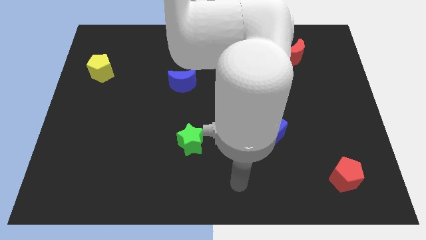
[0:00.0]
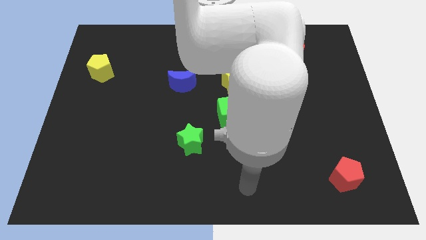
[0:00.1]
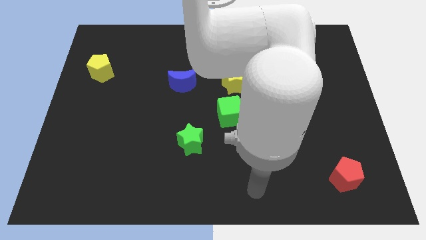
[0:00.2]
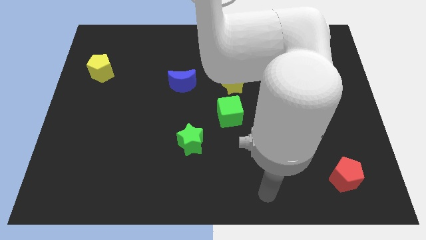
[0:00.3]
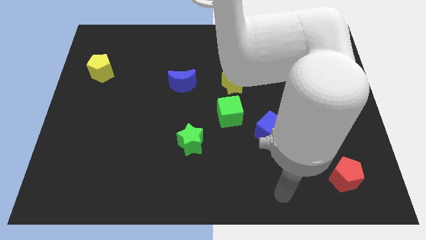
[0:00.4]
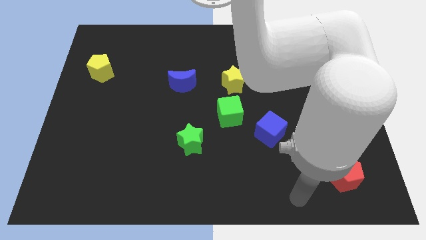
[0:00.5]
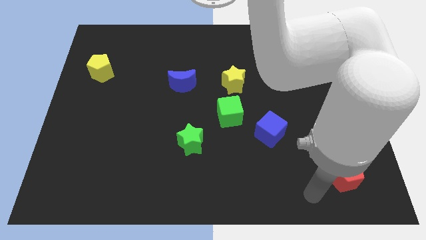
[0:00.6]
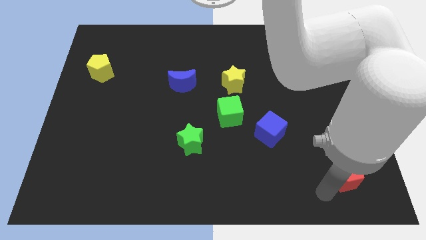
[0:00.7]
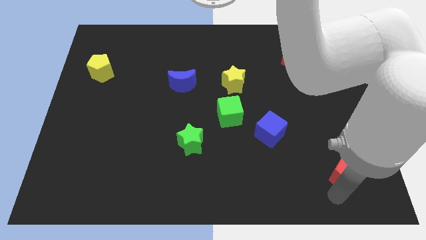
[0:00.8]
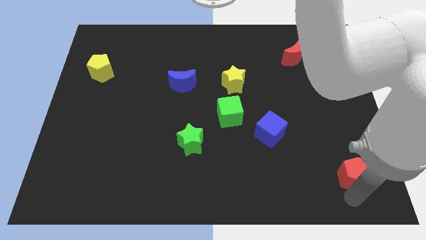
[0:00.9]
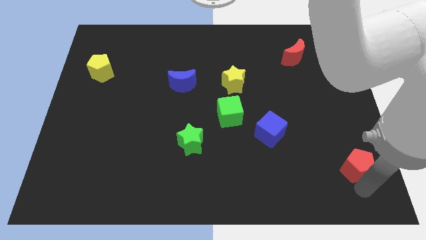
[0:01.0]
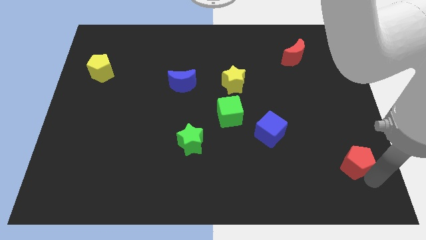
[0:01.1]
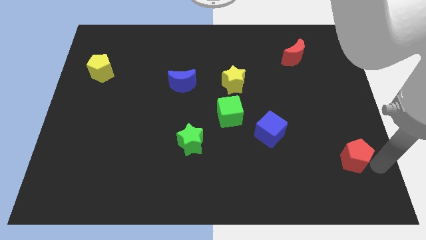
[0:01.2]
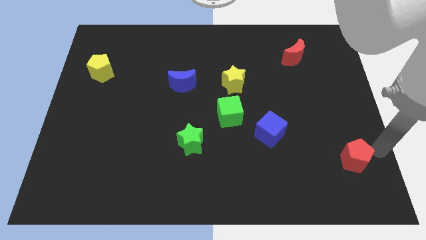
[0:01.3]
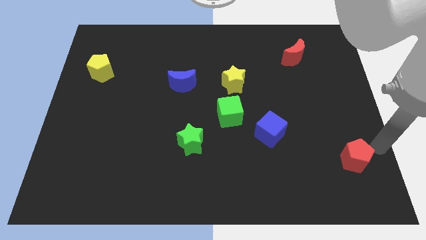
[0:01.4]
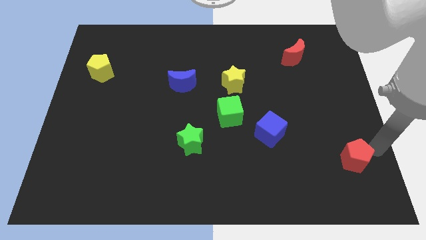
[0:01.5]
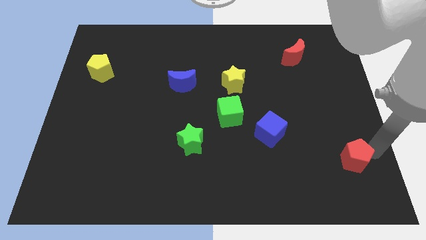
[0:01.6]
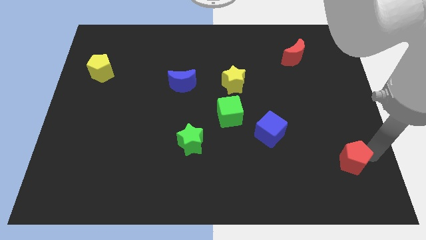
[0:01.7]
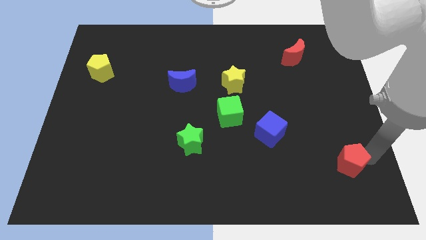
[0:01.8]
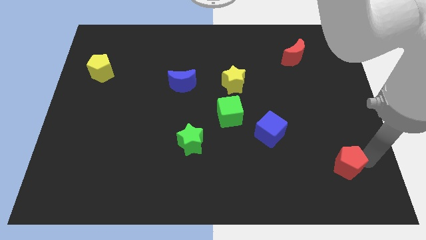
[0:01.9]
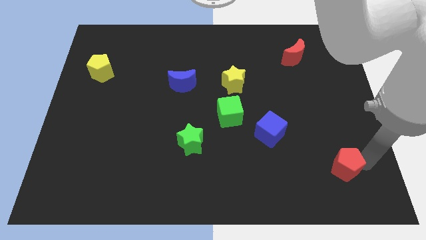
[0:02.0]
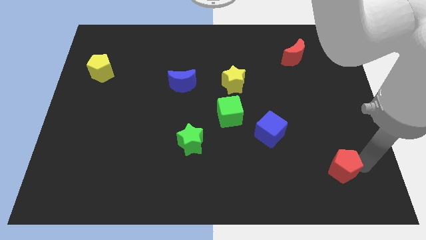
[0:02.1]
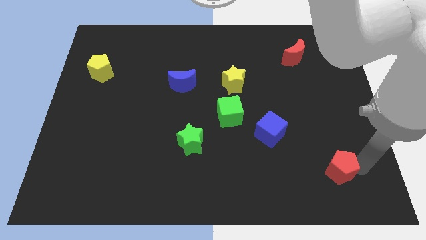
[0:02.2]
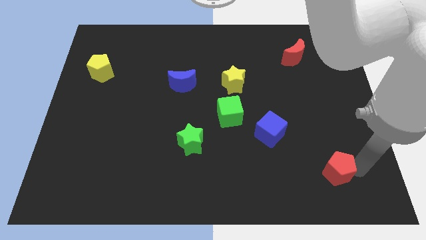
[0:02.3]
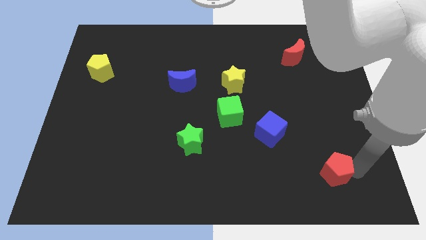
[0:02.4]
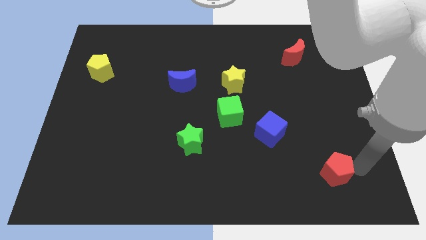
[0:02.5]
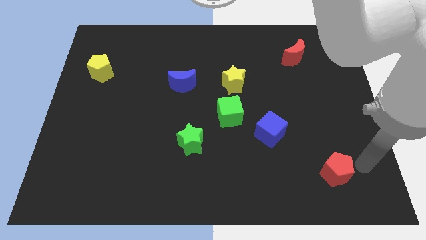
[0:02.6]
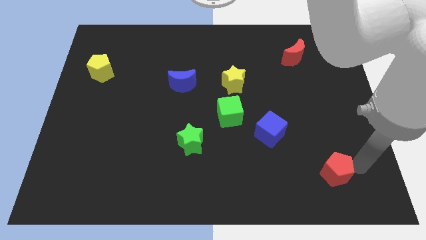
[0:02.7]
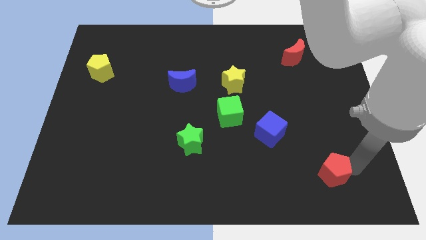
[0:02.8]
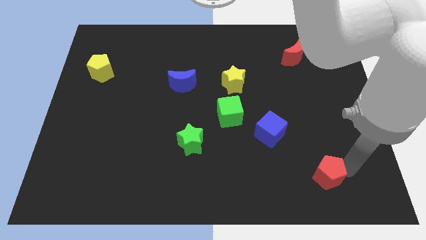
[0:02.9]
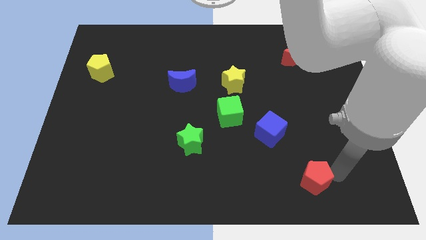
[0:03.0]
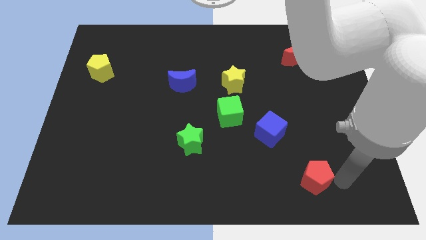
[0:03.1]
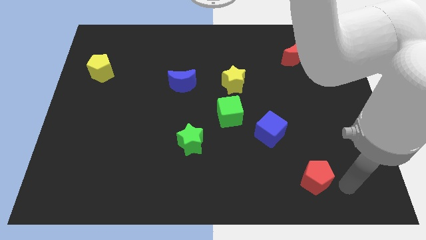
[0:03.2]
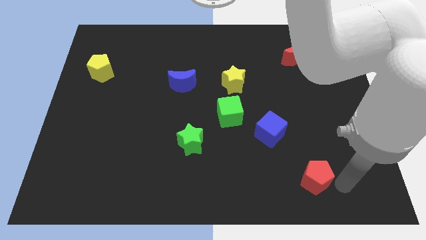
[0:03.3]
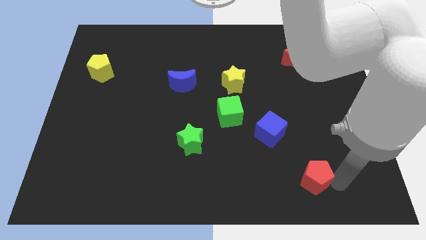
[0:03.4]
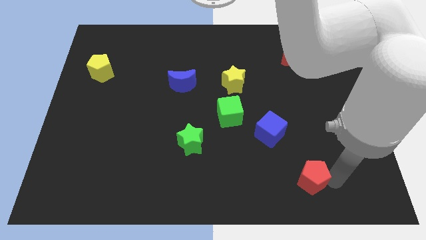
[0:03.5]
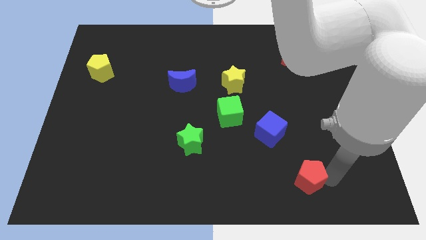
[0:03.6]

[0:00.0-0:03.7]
move the red pentagon to the left a little bit

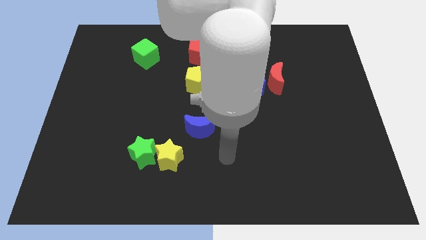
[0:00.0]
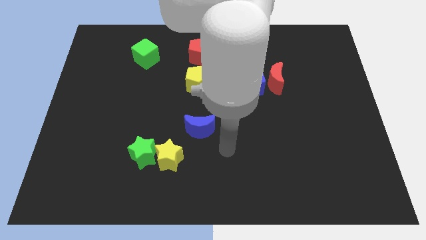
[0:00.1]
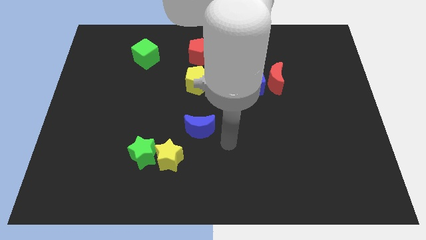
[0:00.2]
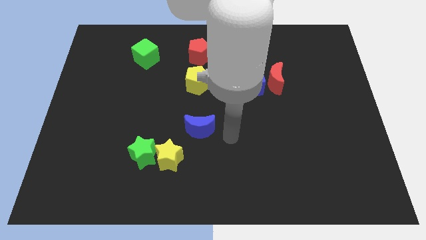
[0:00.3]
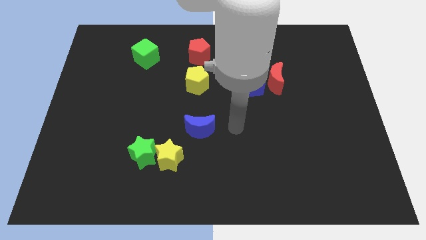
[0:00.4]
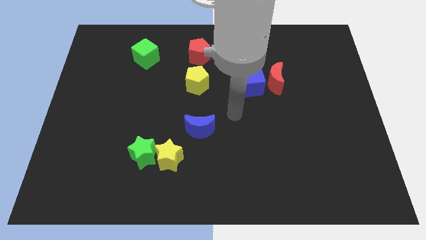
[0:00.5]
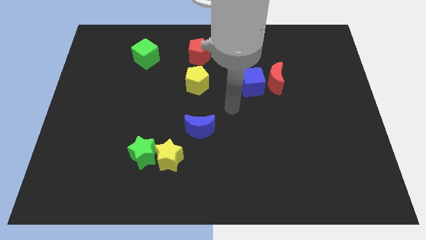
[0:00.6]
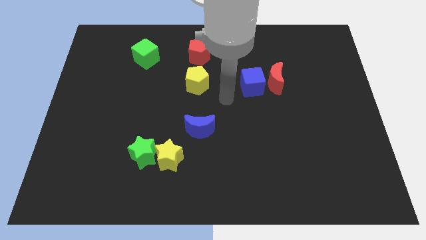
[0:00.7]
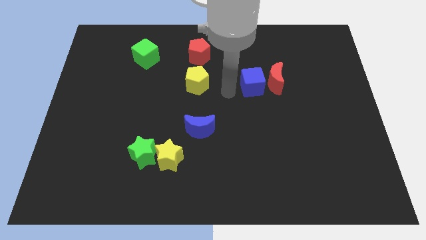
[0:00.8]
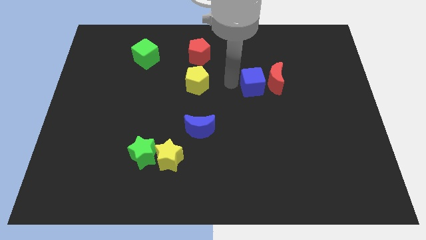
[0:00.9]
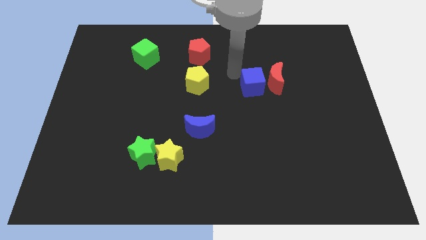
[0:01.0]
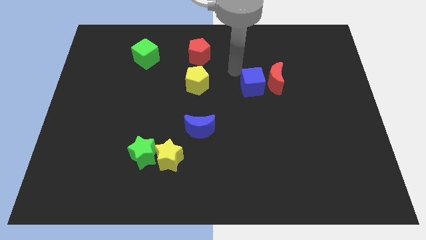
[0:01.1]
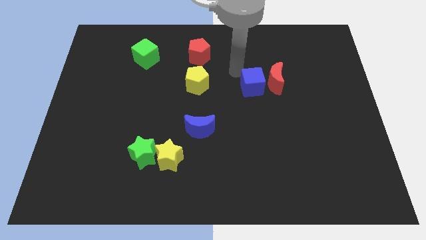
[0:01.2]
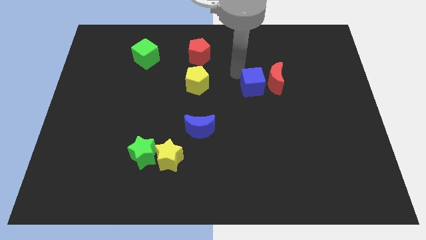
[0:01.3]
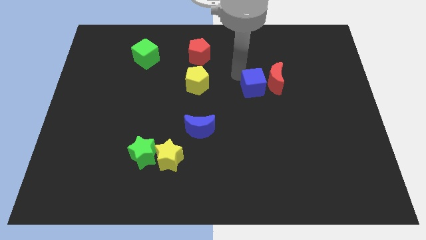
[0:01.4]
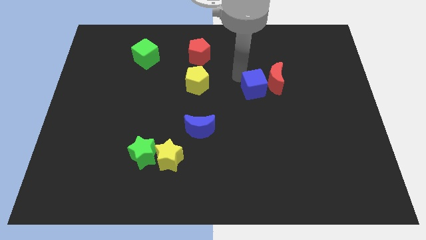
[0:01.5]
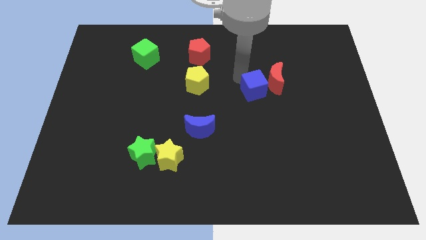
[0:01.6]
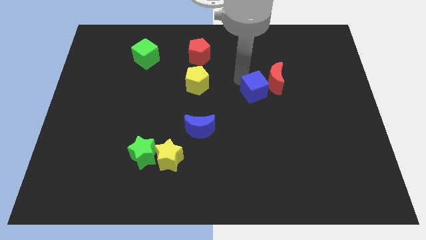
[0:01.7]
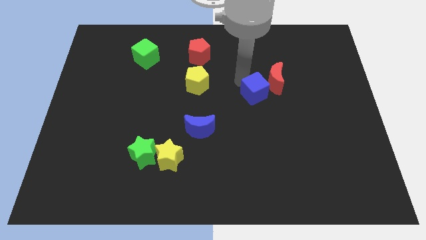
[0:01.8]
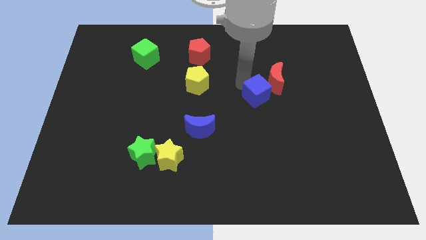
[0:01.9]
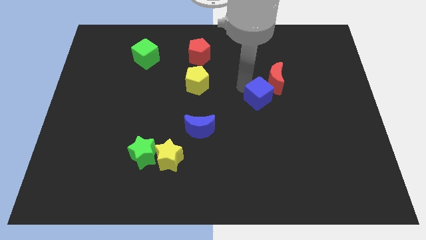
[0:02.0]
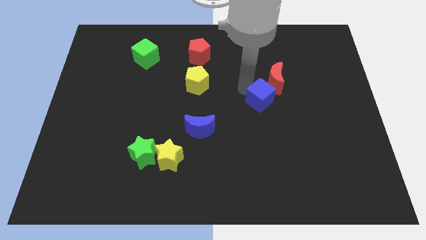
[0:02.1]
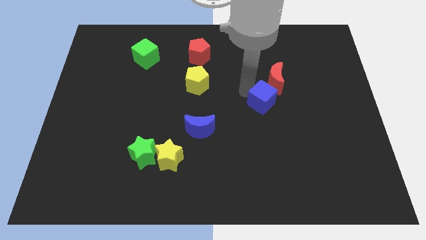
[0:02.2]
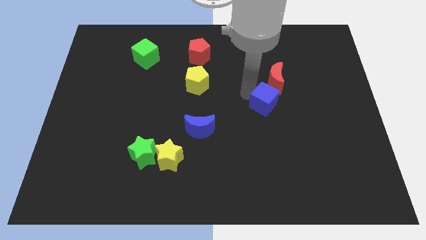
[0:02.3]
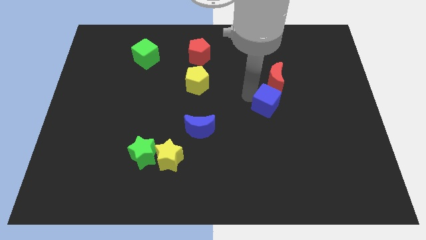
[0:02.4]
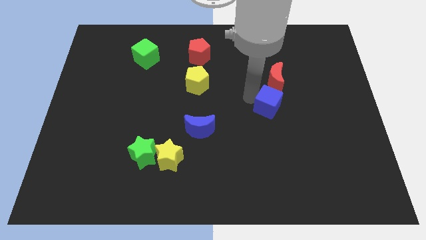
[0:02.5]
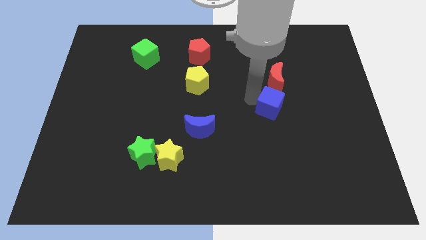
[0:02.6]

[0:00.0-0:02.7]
slightly push the blue cube diagonally down and to the right

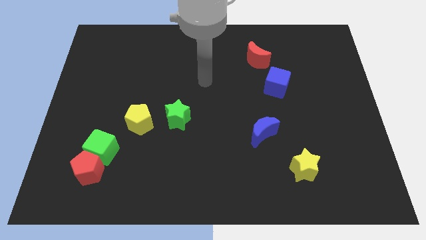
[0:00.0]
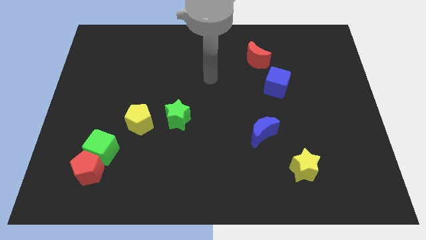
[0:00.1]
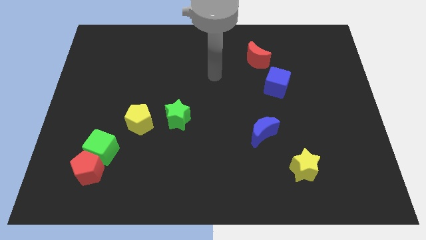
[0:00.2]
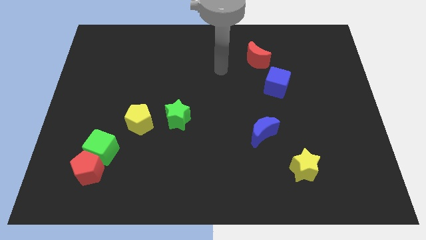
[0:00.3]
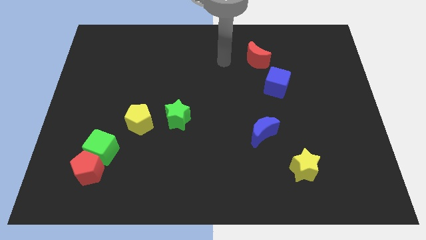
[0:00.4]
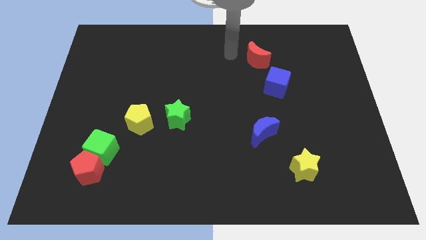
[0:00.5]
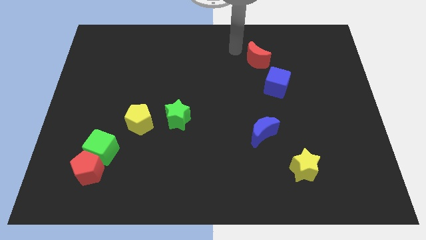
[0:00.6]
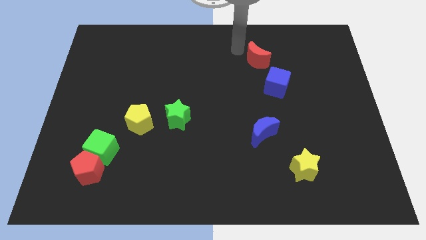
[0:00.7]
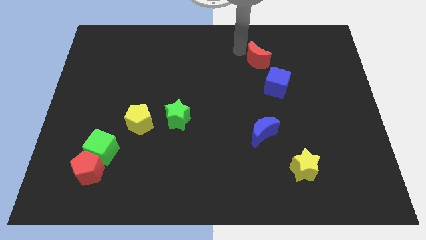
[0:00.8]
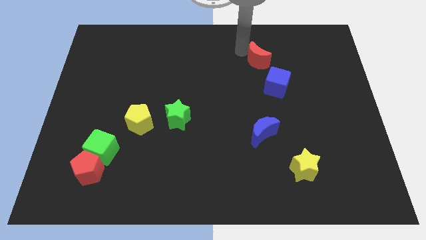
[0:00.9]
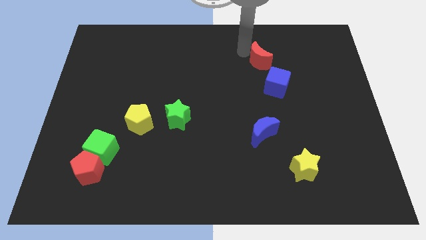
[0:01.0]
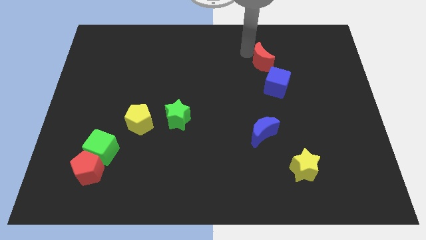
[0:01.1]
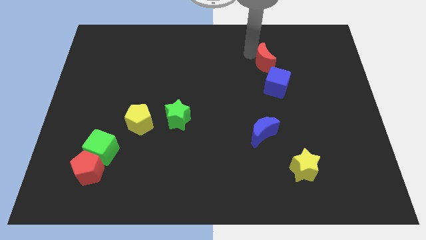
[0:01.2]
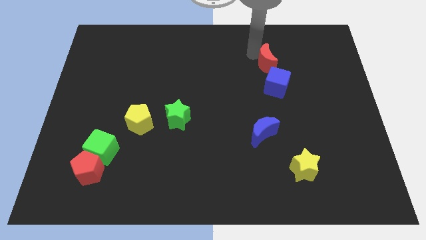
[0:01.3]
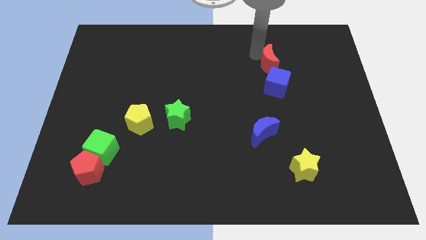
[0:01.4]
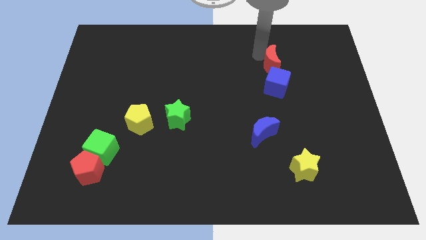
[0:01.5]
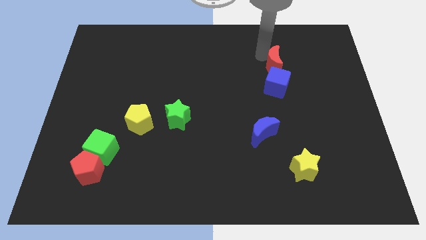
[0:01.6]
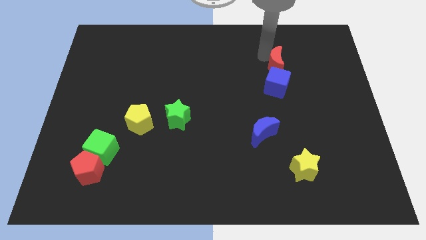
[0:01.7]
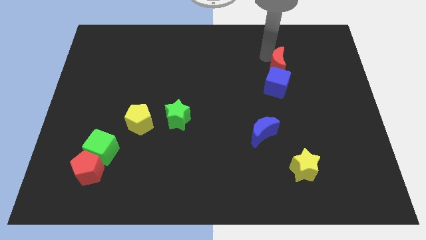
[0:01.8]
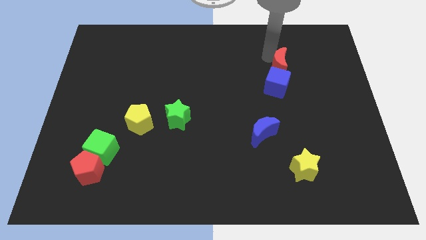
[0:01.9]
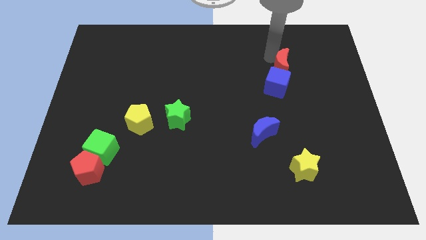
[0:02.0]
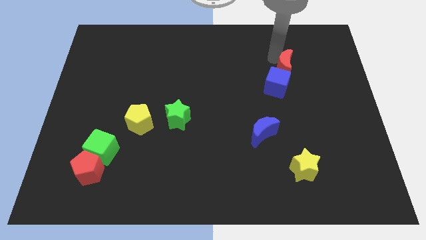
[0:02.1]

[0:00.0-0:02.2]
push the red moon down and then right a little bit
